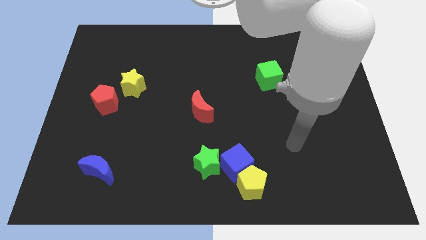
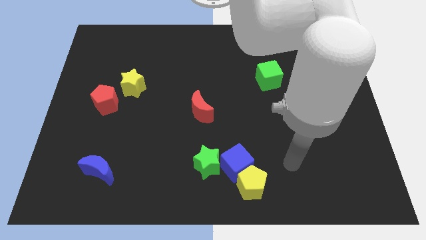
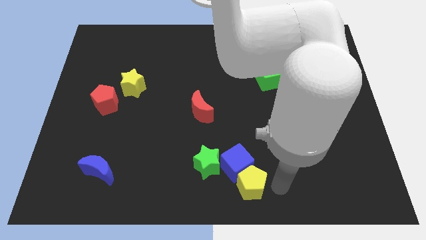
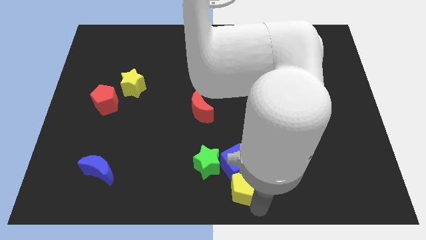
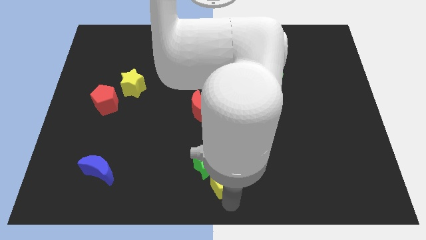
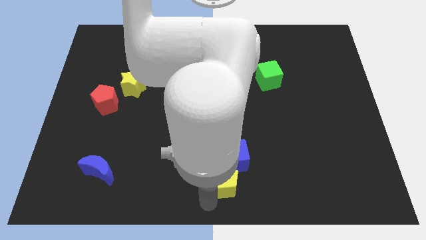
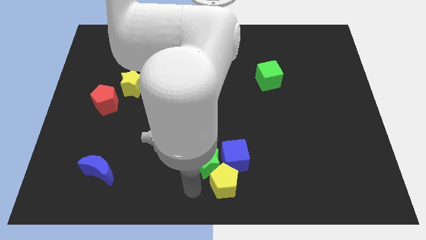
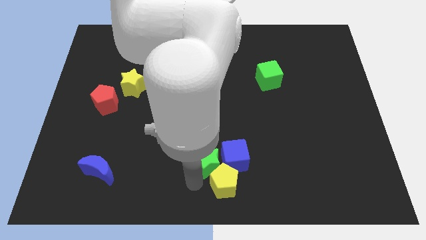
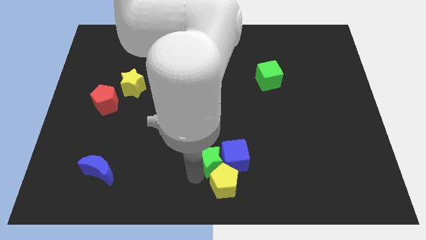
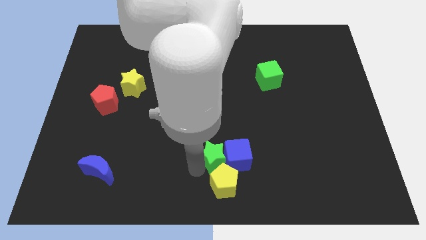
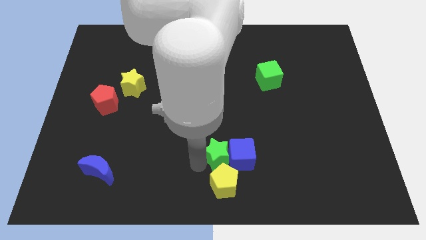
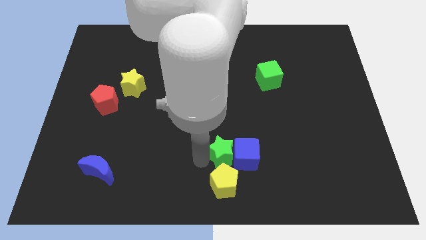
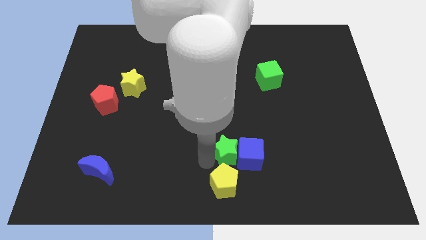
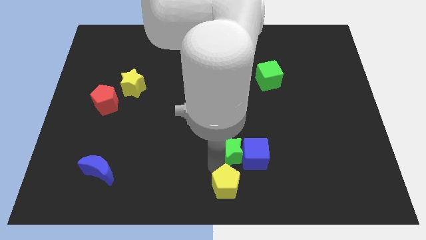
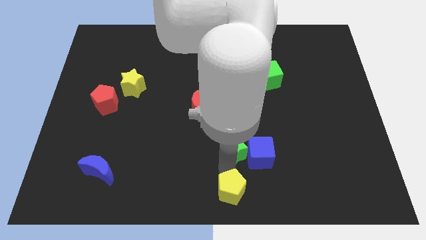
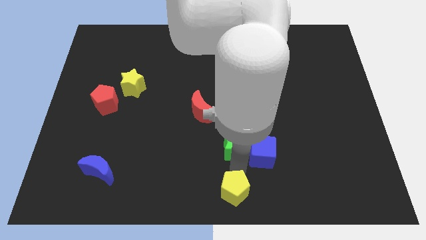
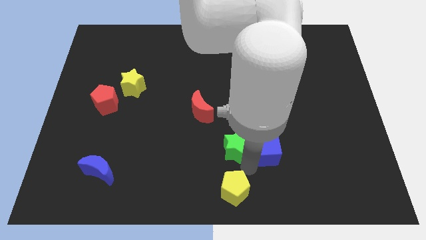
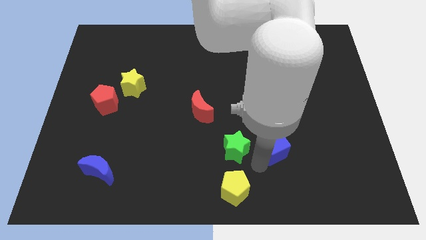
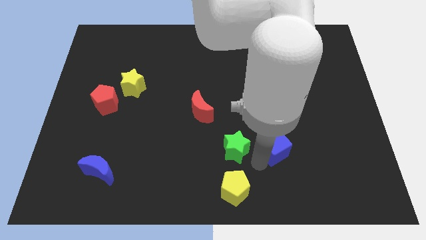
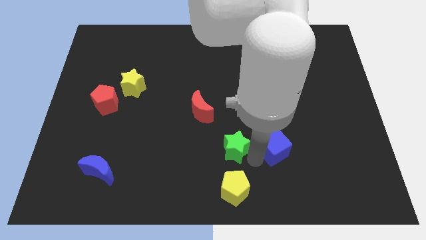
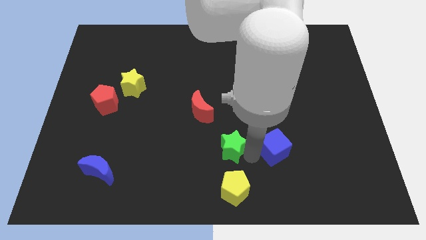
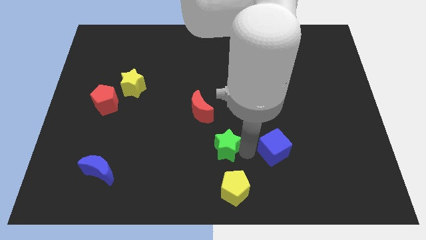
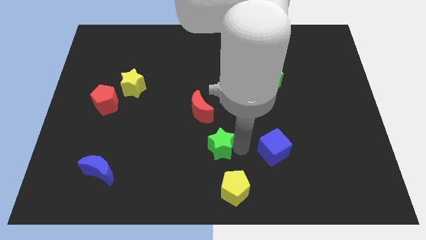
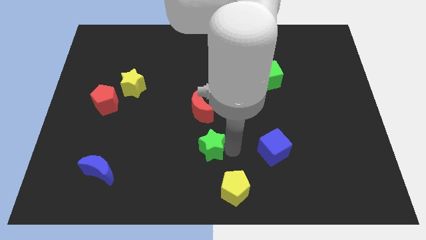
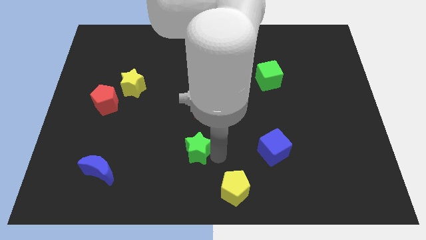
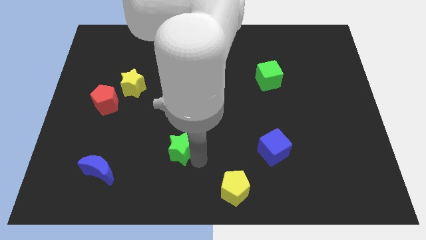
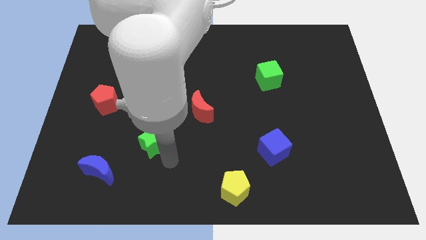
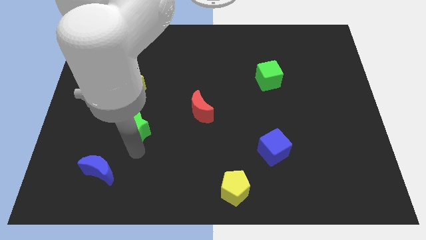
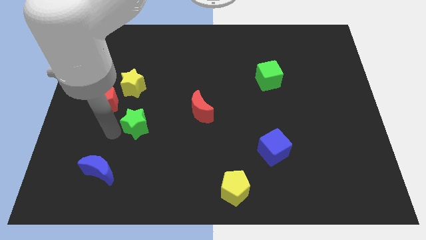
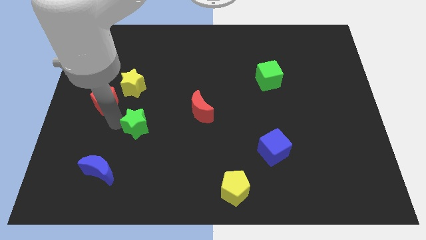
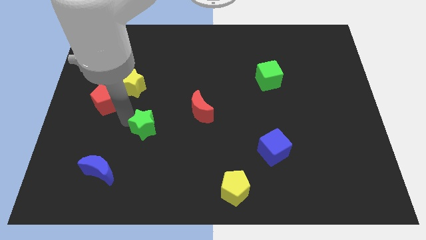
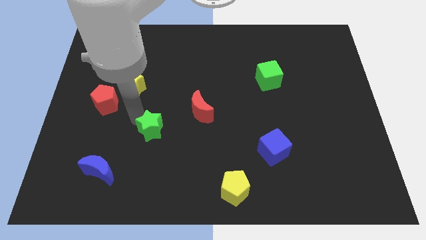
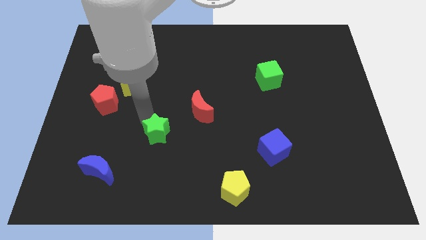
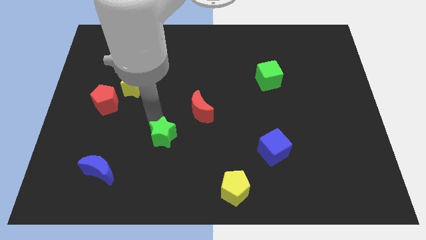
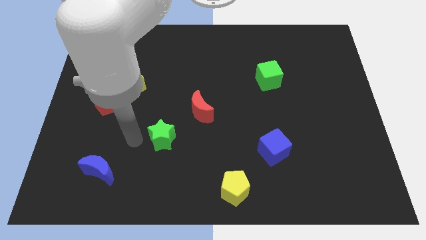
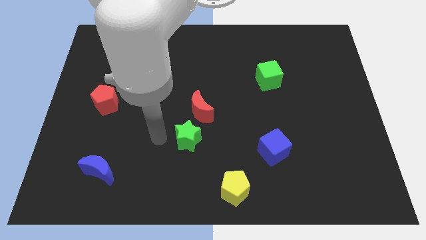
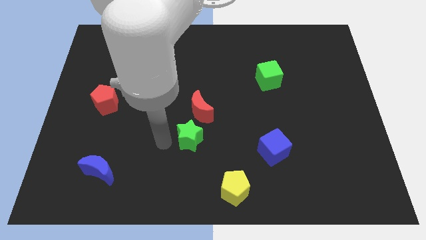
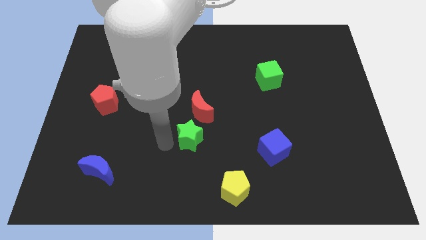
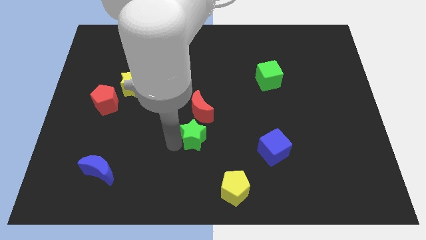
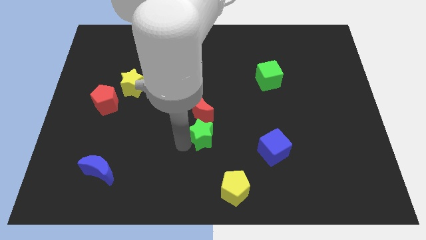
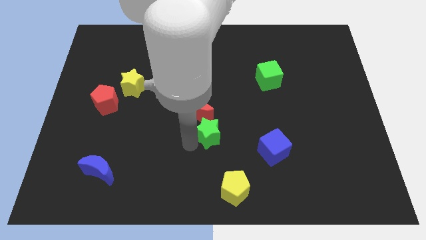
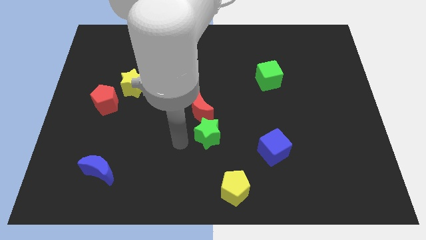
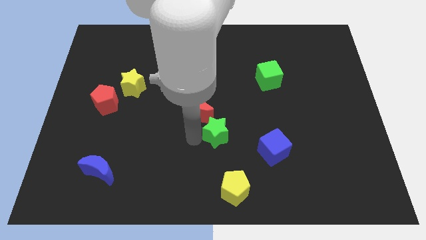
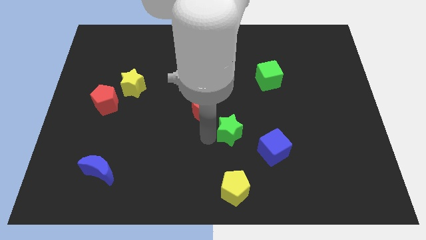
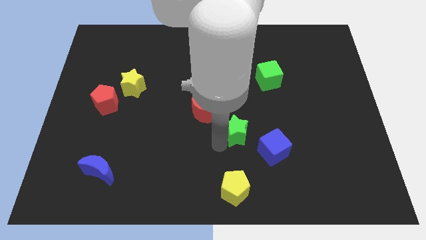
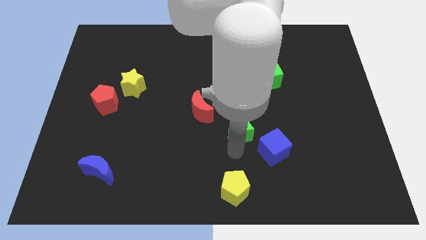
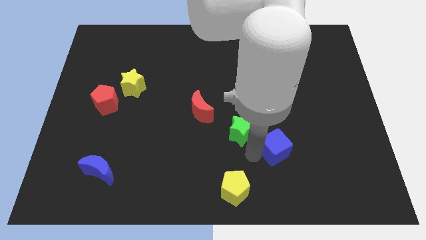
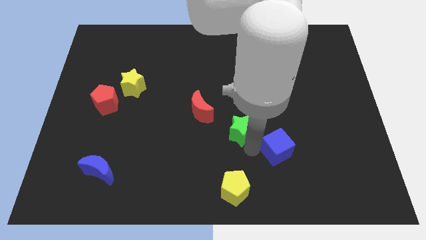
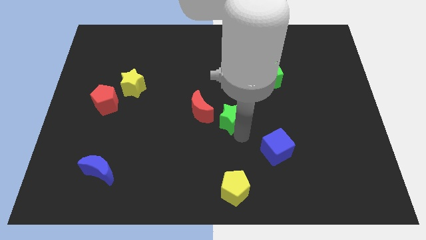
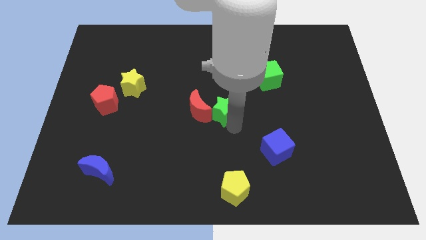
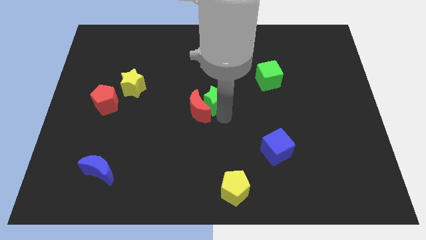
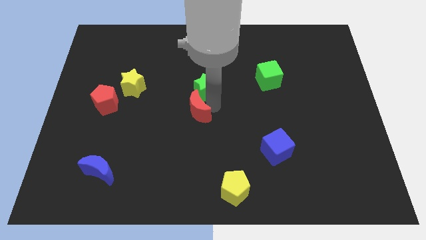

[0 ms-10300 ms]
push the green star upwards

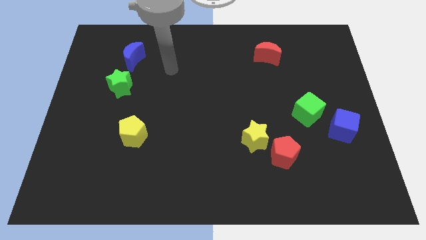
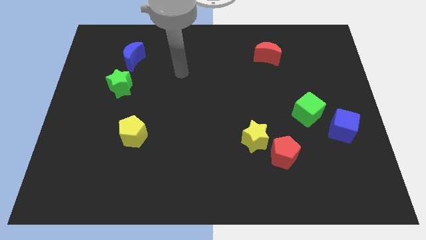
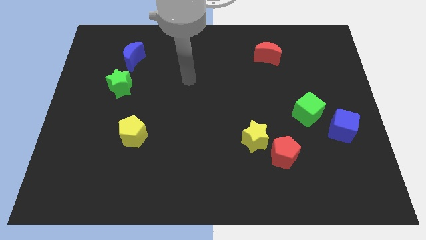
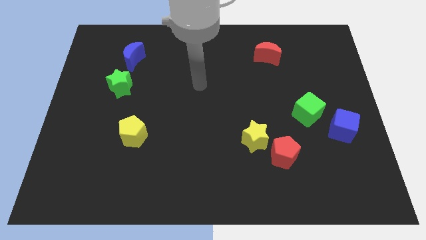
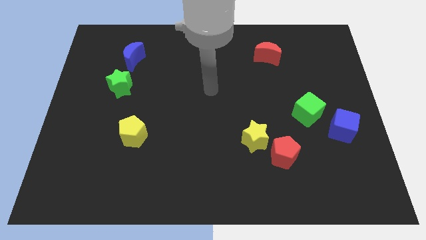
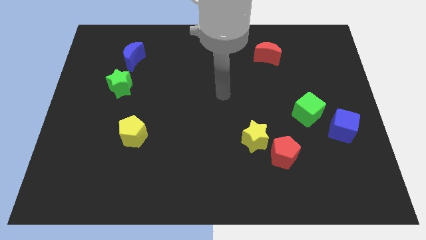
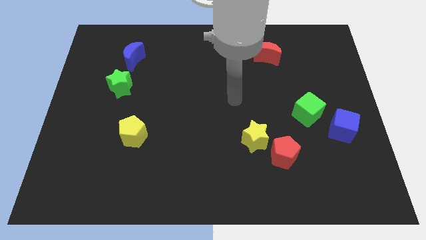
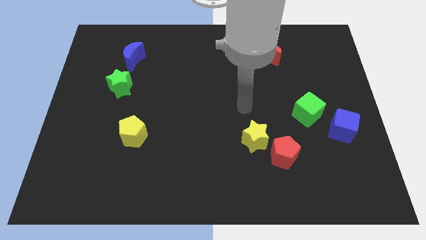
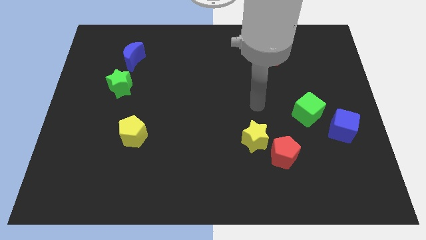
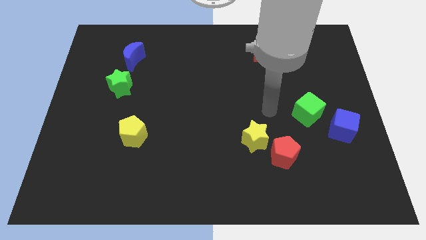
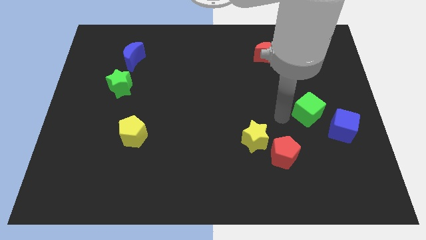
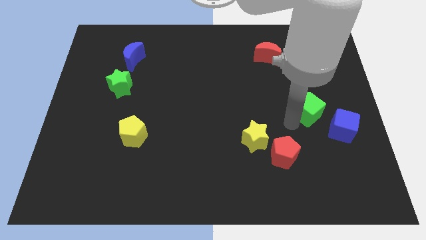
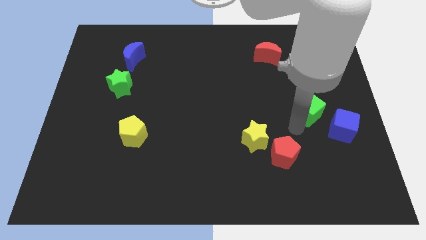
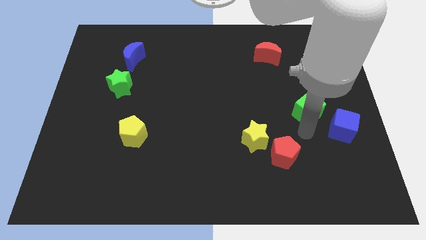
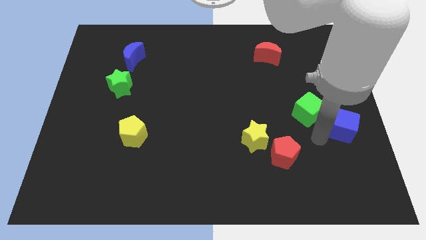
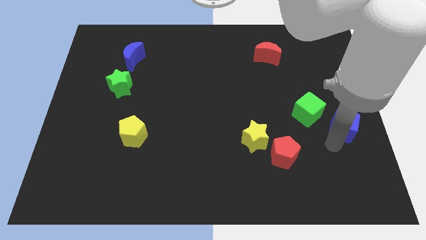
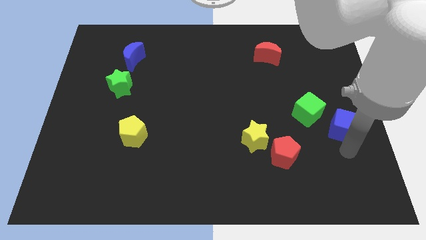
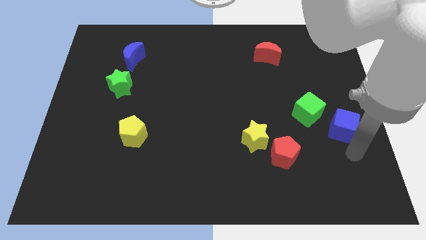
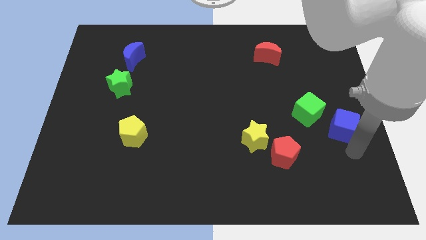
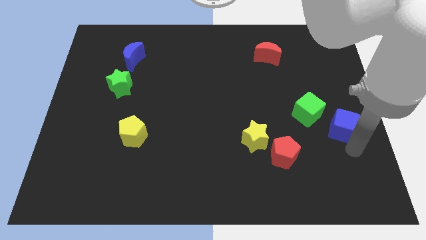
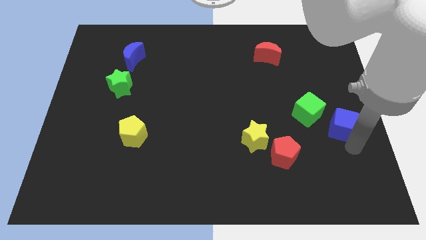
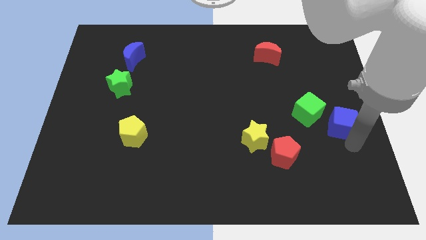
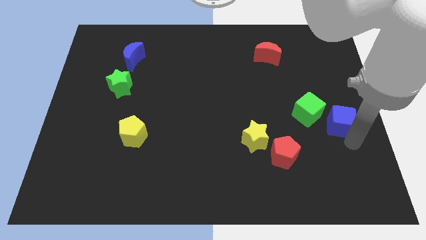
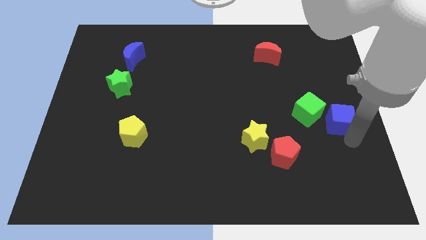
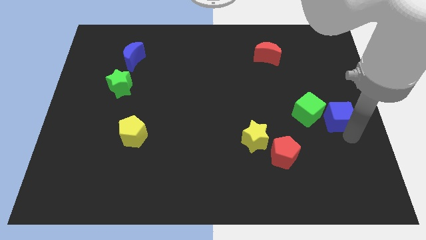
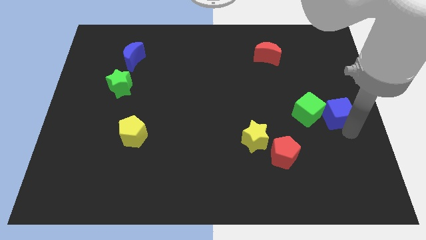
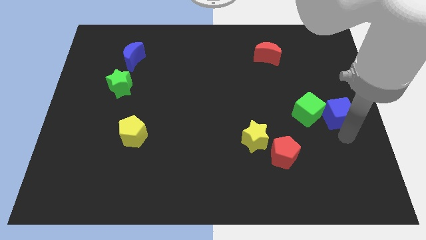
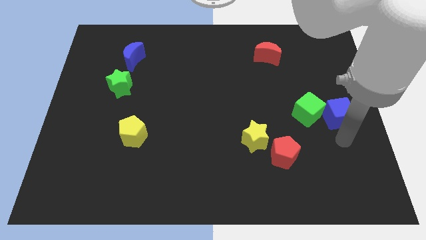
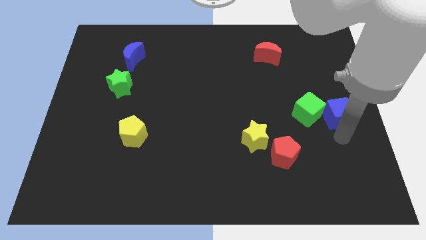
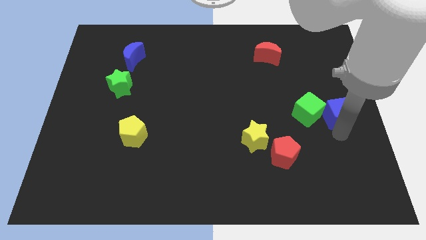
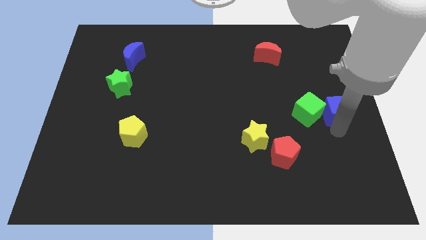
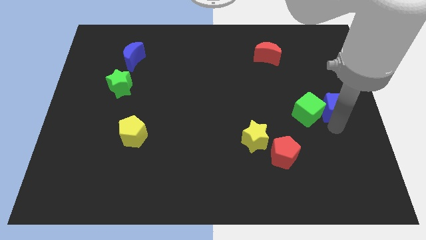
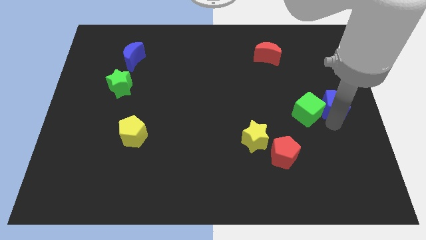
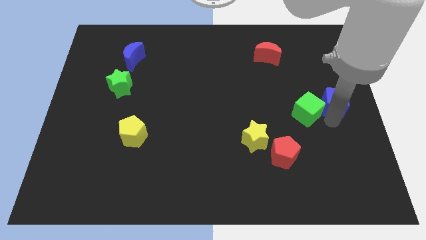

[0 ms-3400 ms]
slightly slide the blue cube upwards
